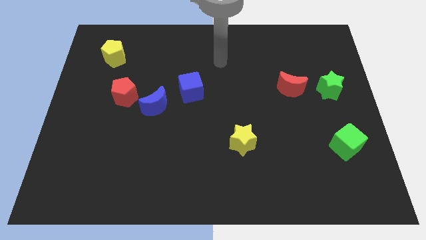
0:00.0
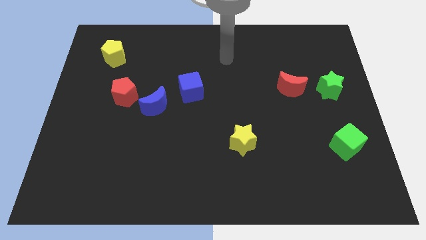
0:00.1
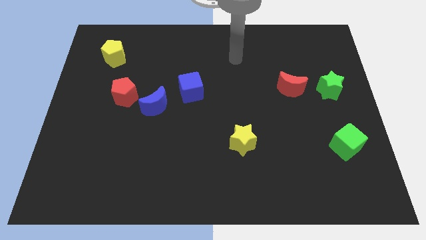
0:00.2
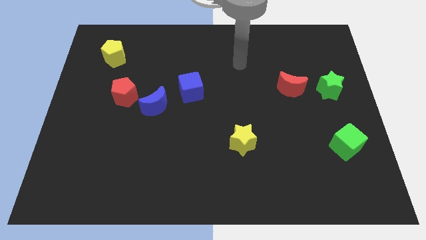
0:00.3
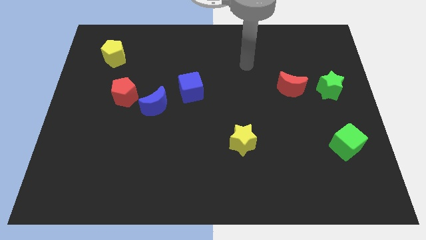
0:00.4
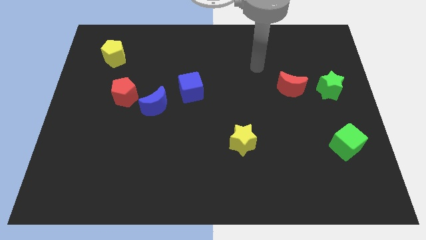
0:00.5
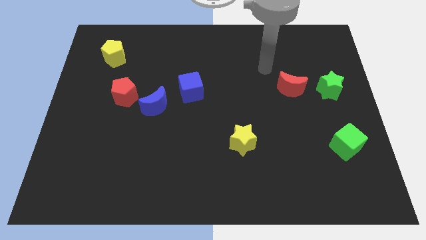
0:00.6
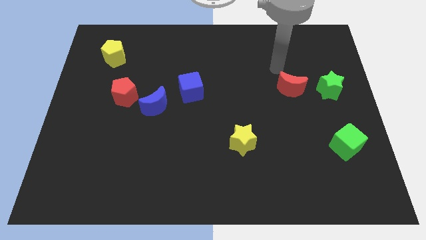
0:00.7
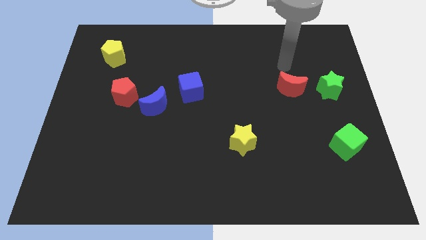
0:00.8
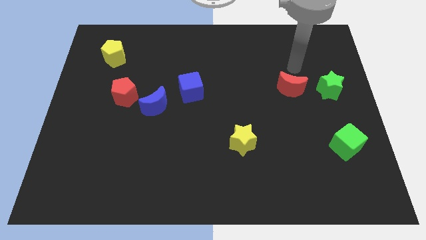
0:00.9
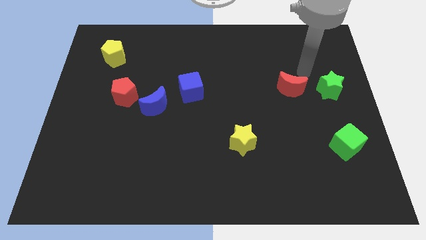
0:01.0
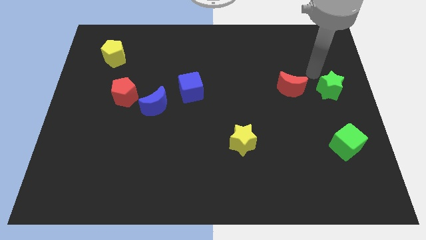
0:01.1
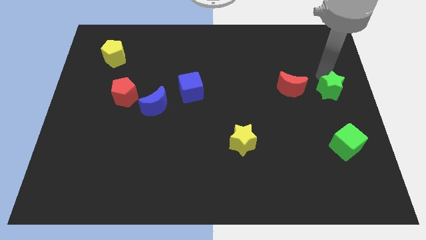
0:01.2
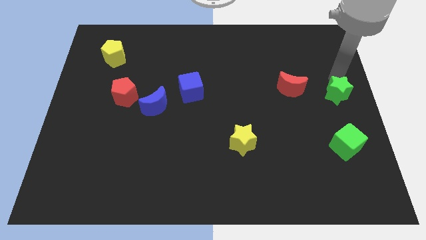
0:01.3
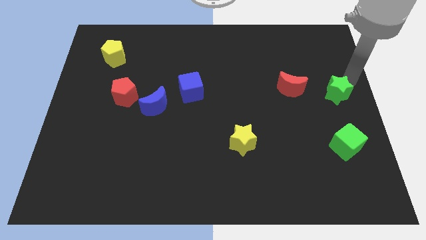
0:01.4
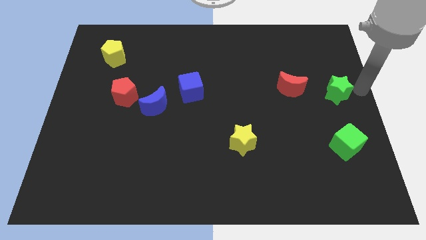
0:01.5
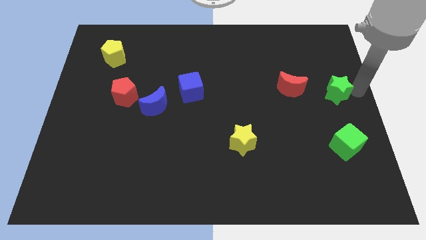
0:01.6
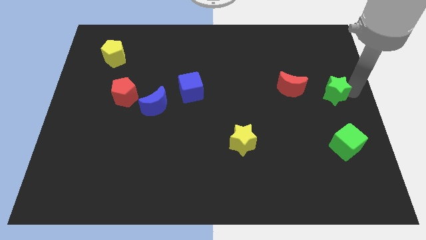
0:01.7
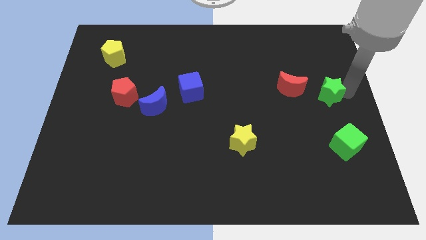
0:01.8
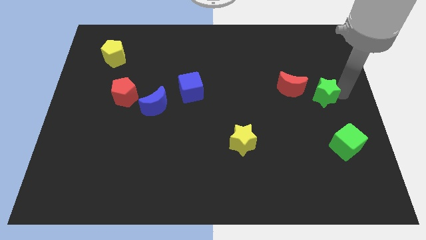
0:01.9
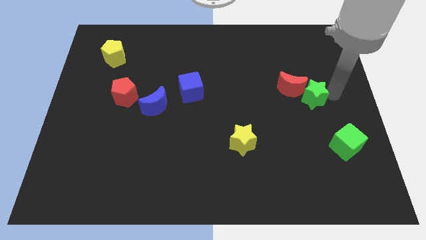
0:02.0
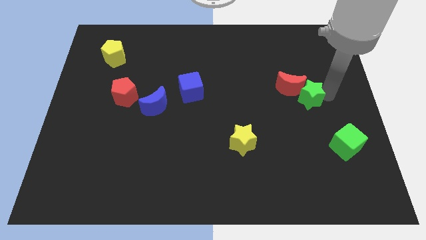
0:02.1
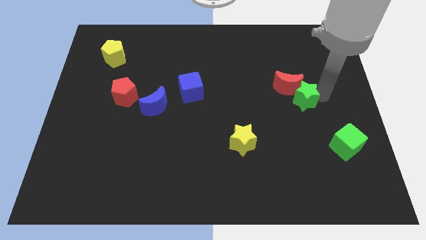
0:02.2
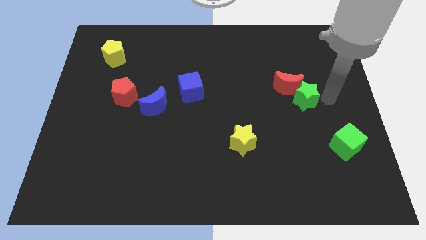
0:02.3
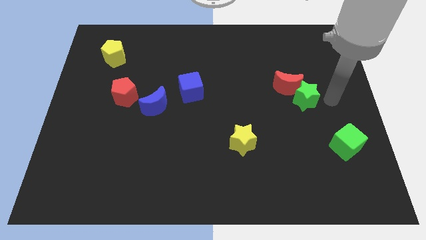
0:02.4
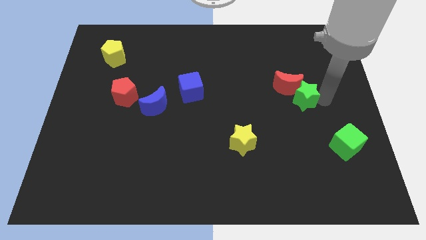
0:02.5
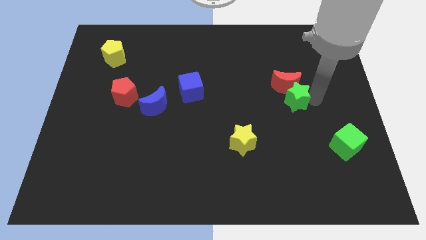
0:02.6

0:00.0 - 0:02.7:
move the green star a little bit left

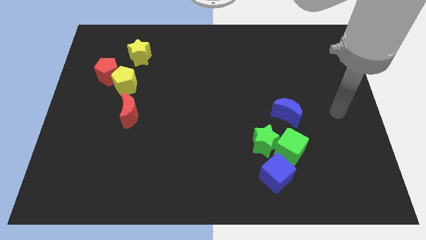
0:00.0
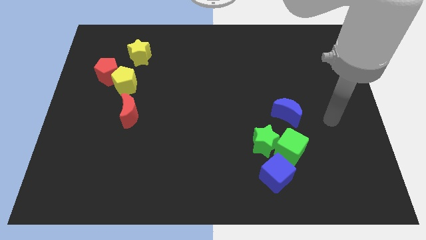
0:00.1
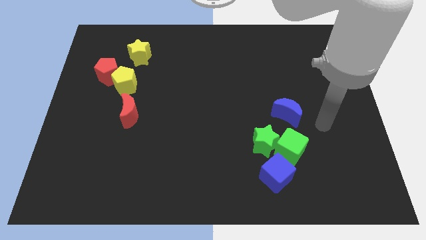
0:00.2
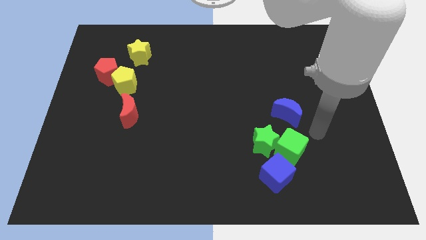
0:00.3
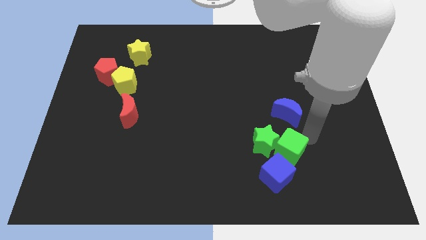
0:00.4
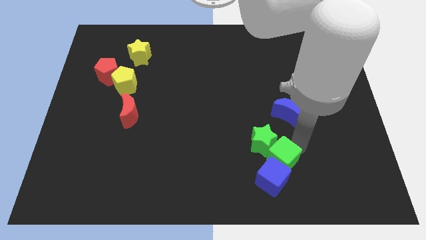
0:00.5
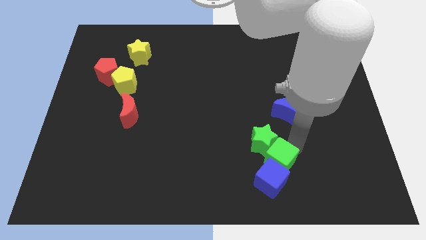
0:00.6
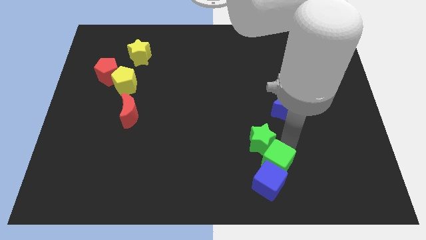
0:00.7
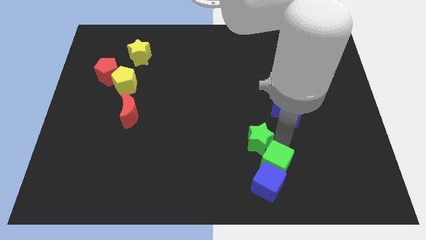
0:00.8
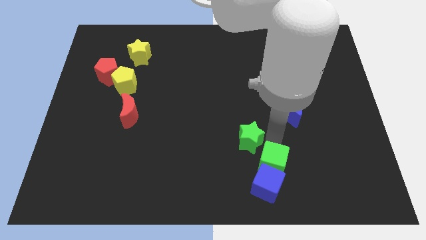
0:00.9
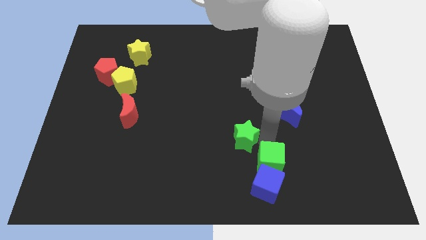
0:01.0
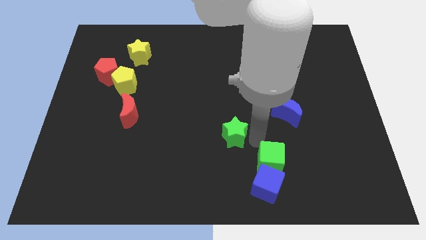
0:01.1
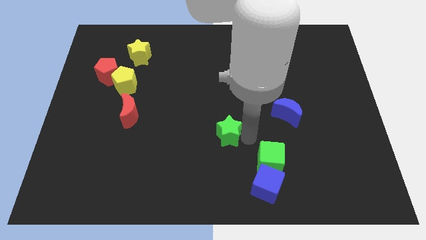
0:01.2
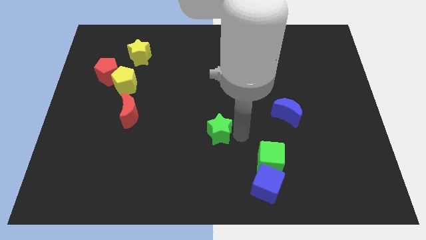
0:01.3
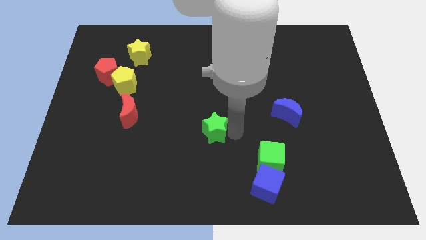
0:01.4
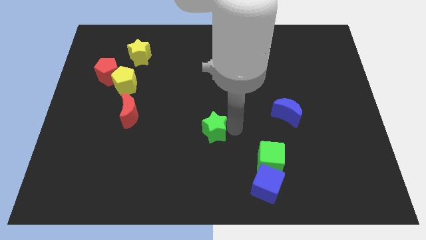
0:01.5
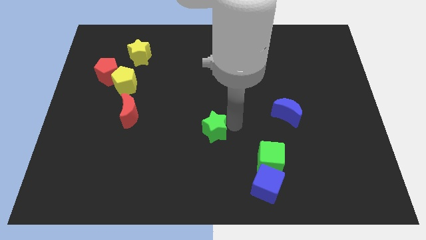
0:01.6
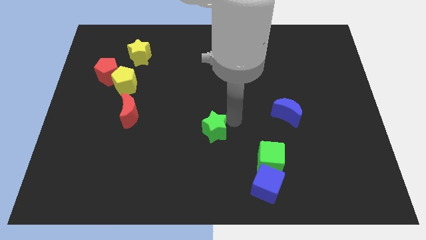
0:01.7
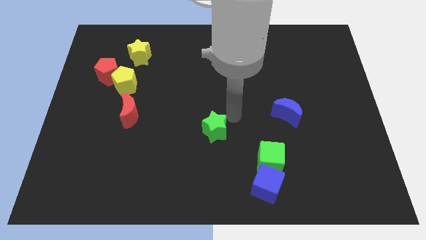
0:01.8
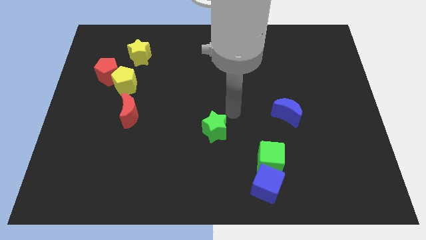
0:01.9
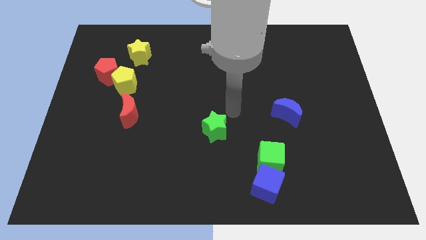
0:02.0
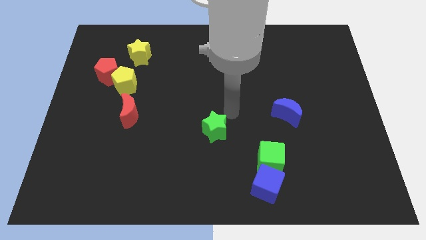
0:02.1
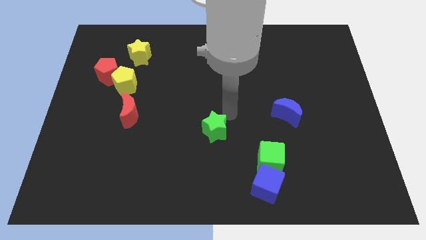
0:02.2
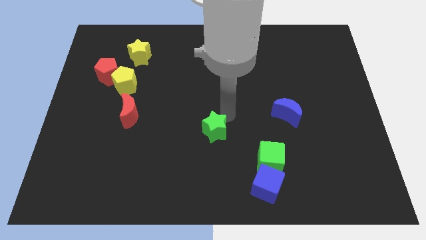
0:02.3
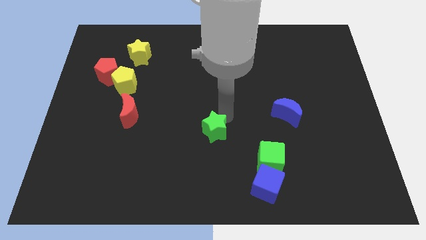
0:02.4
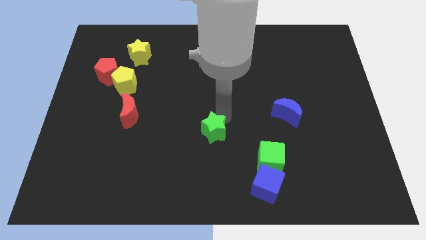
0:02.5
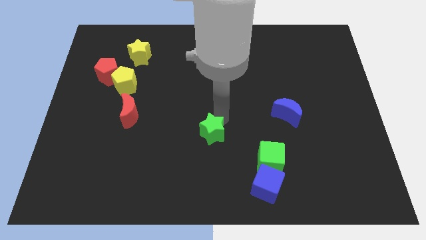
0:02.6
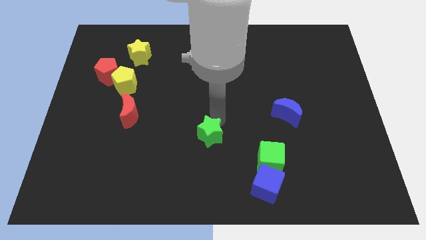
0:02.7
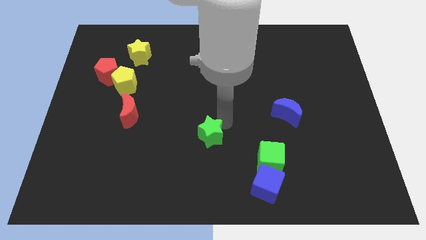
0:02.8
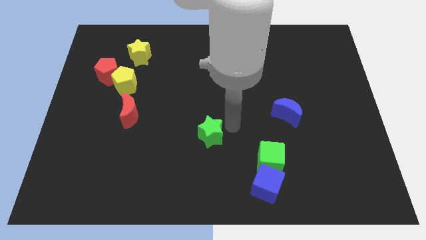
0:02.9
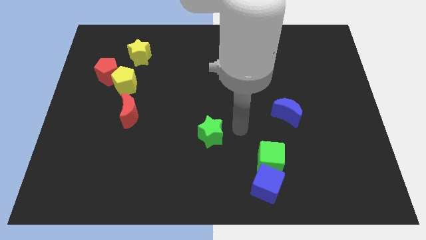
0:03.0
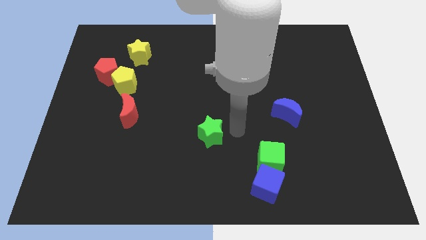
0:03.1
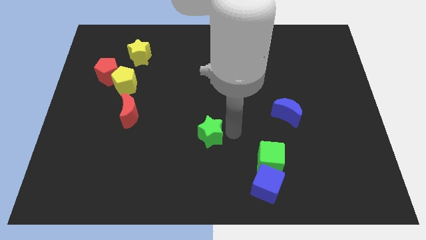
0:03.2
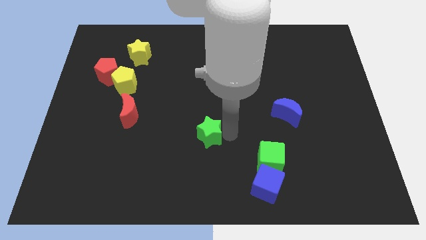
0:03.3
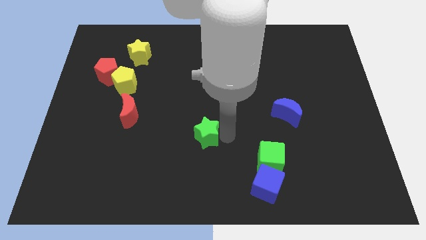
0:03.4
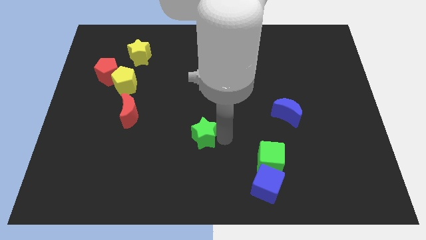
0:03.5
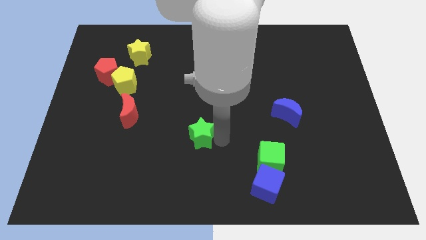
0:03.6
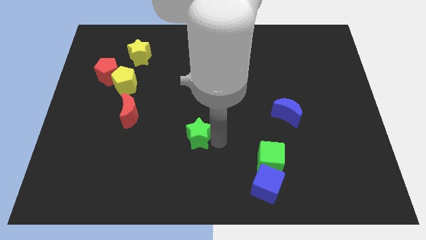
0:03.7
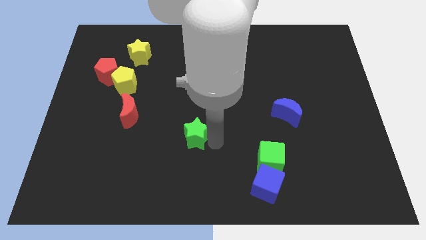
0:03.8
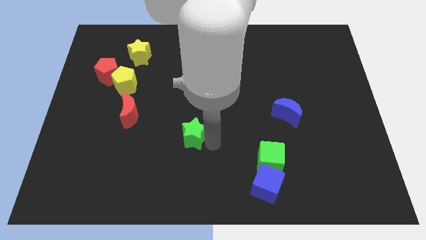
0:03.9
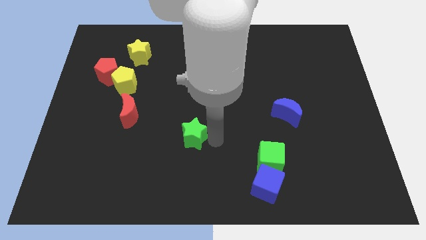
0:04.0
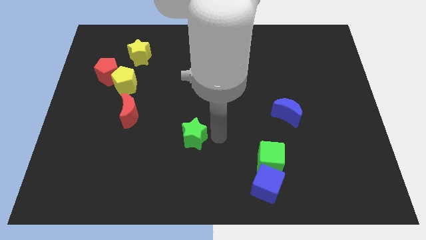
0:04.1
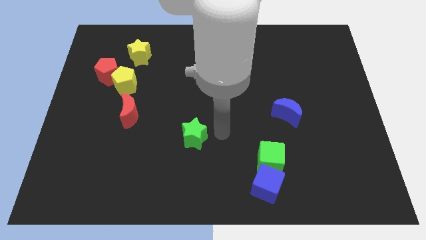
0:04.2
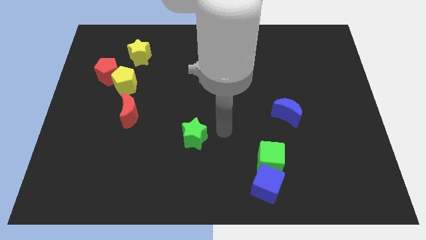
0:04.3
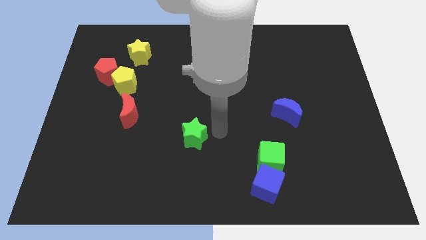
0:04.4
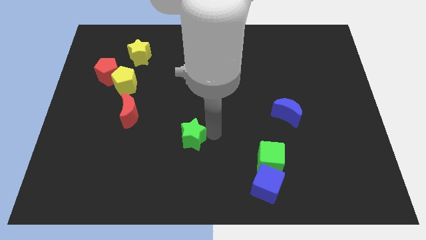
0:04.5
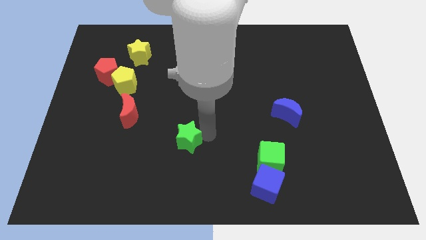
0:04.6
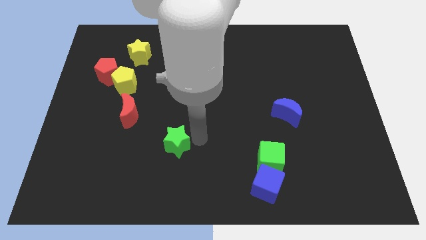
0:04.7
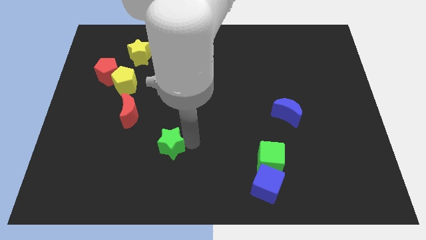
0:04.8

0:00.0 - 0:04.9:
move the green star left

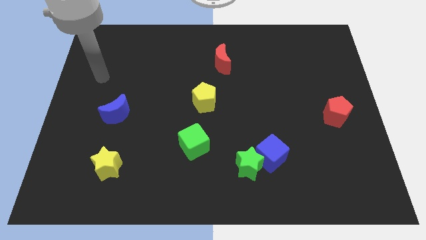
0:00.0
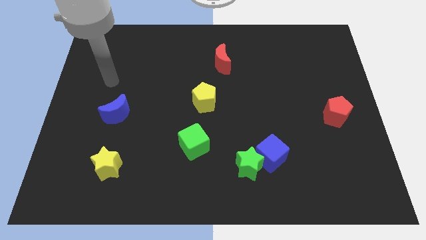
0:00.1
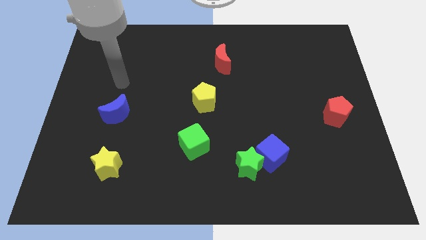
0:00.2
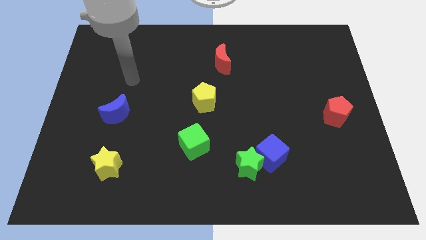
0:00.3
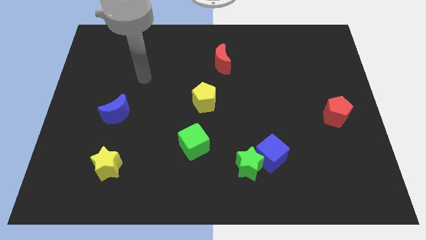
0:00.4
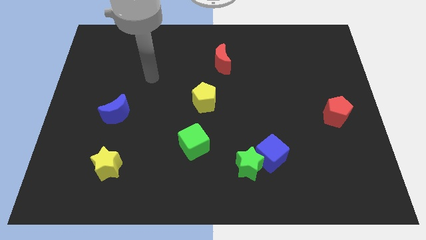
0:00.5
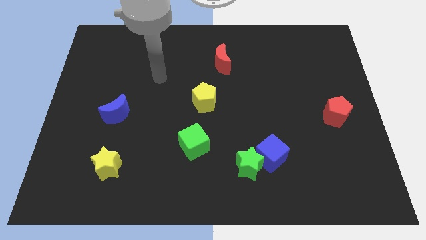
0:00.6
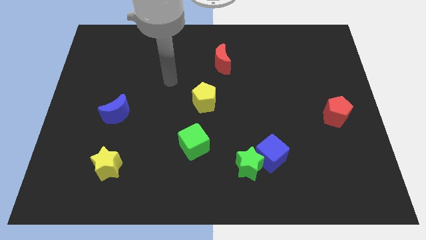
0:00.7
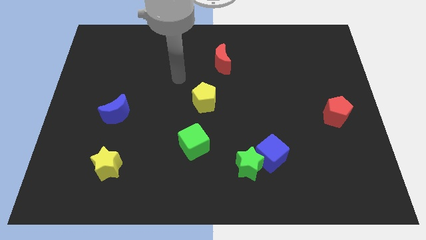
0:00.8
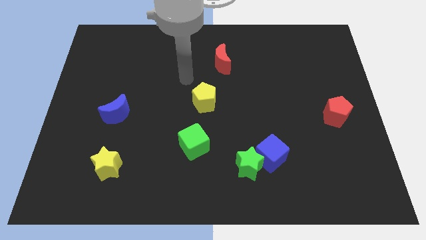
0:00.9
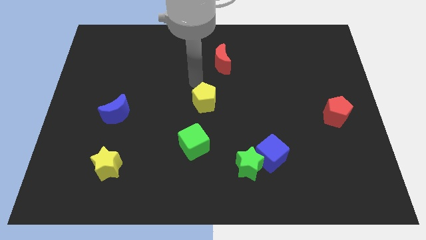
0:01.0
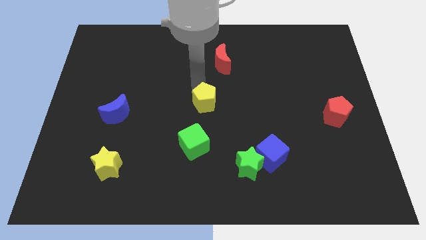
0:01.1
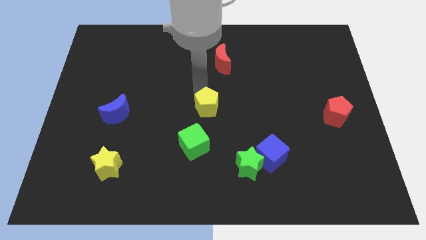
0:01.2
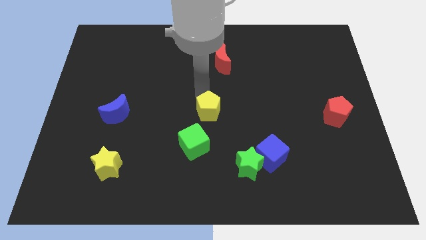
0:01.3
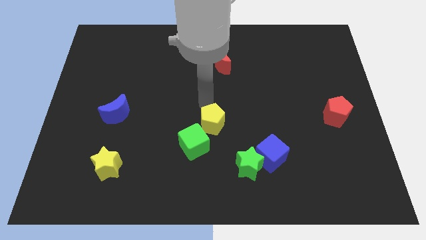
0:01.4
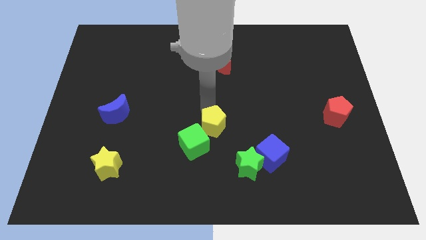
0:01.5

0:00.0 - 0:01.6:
move the yellow pentagon down somewhat
